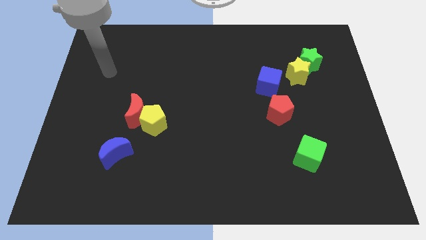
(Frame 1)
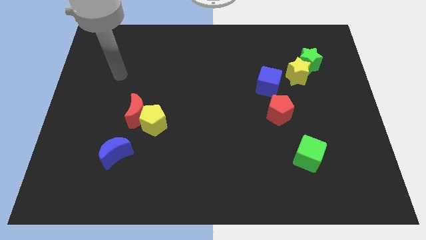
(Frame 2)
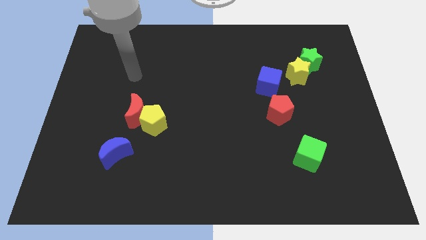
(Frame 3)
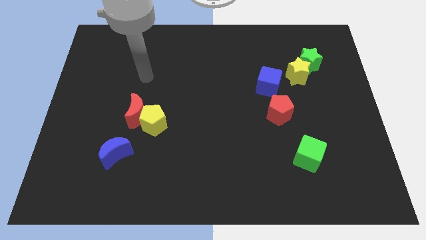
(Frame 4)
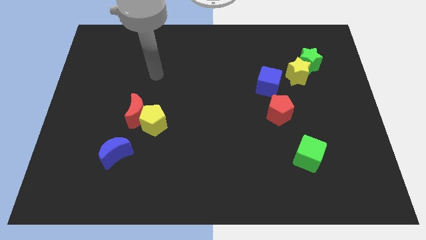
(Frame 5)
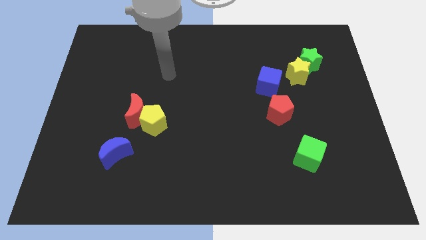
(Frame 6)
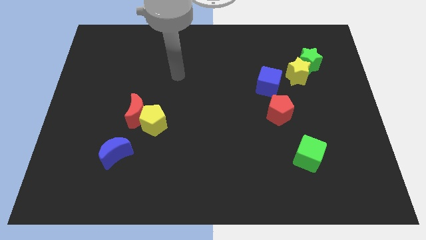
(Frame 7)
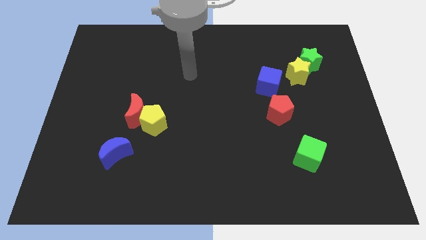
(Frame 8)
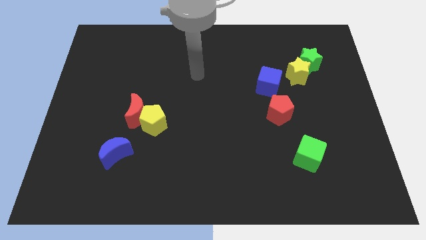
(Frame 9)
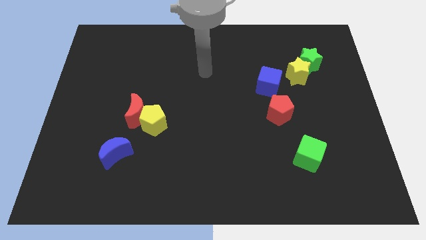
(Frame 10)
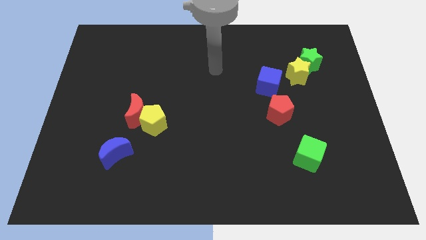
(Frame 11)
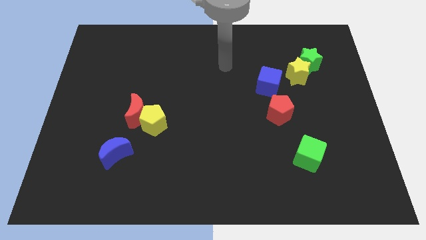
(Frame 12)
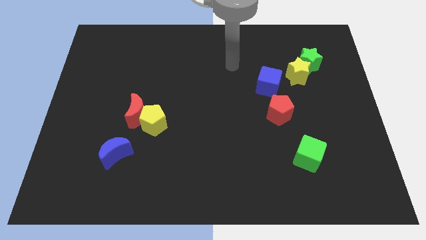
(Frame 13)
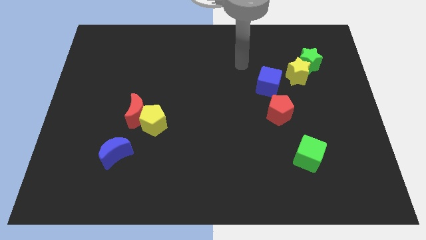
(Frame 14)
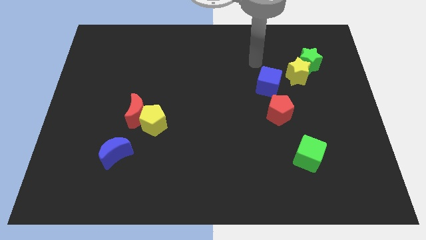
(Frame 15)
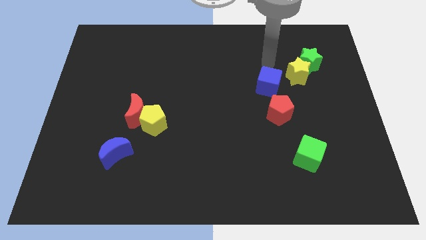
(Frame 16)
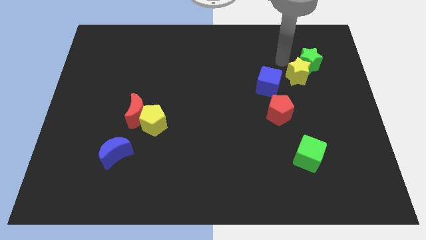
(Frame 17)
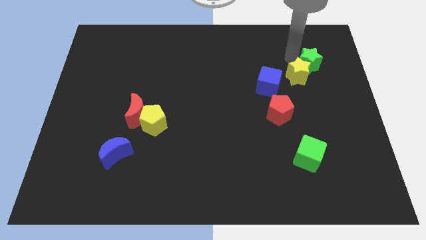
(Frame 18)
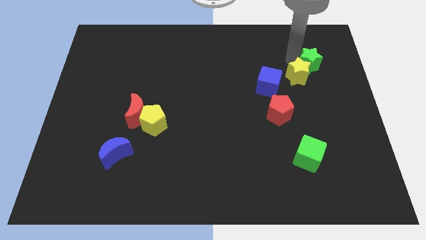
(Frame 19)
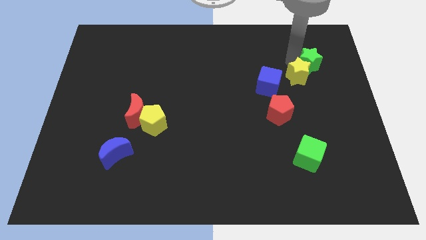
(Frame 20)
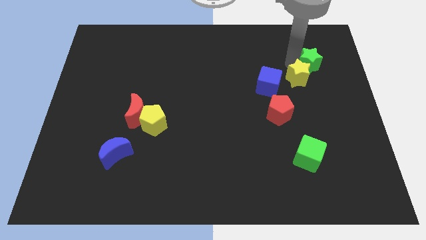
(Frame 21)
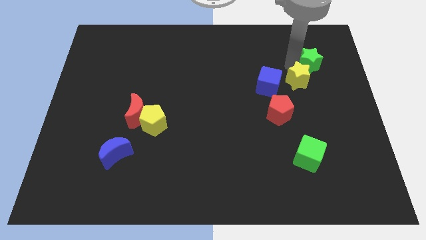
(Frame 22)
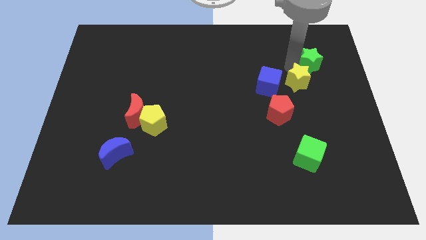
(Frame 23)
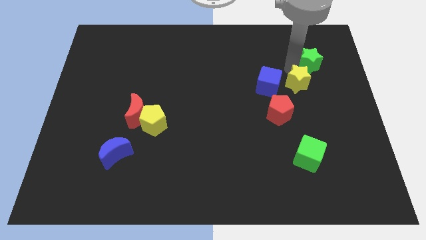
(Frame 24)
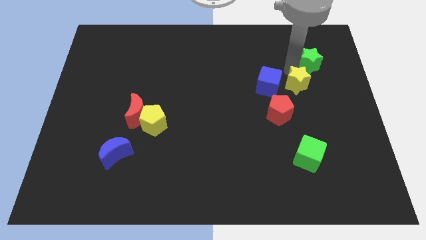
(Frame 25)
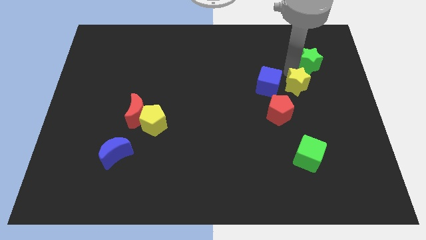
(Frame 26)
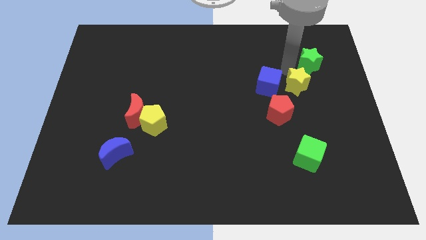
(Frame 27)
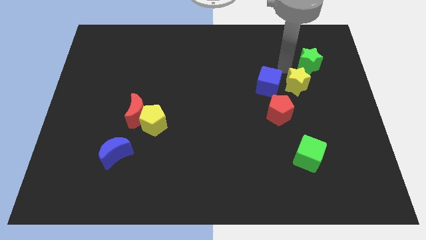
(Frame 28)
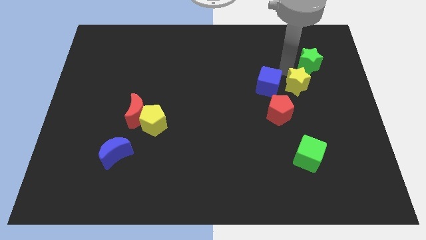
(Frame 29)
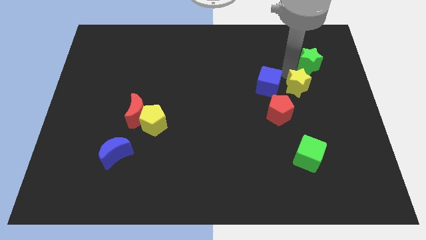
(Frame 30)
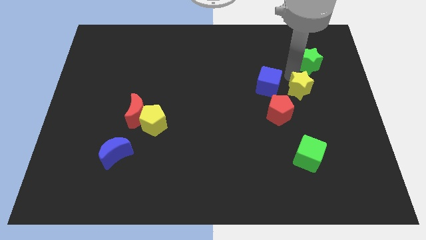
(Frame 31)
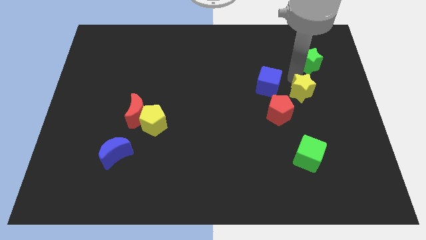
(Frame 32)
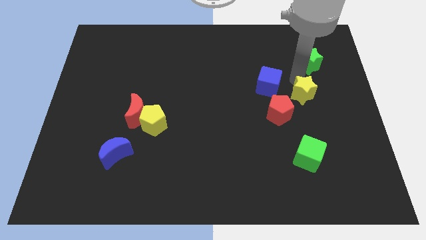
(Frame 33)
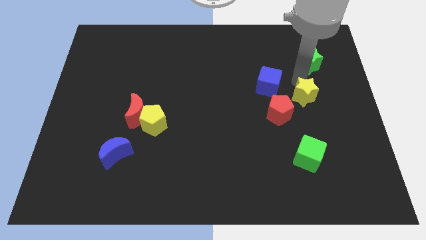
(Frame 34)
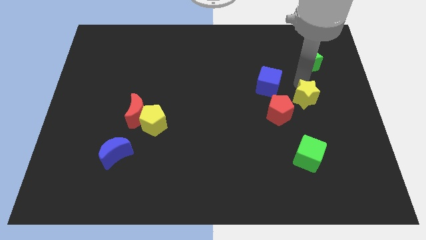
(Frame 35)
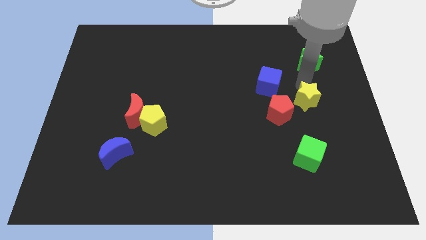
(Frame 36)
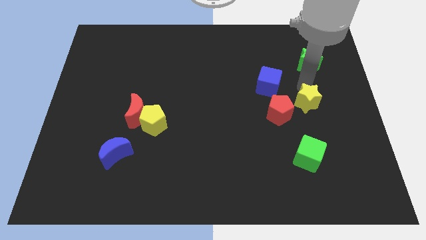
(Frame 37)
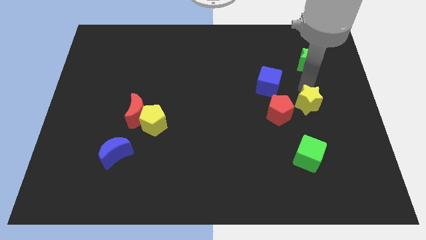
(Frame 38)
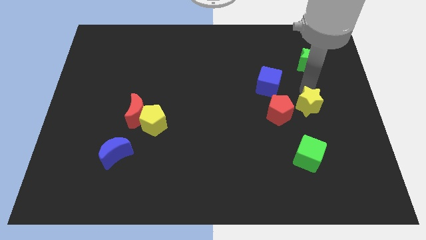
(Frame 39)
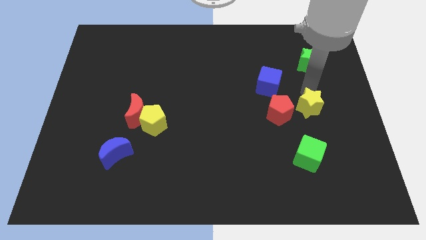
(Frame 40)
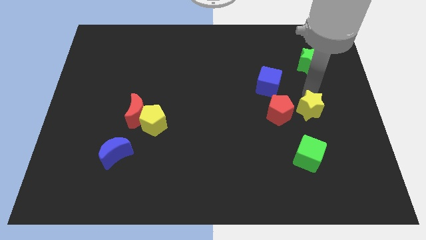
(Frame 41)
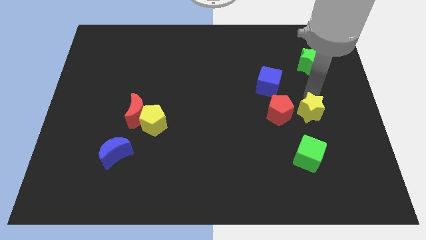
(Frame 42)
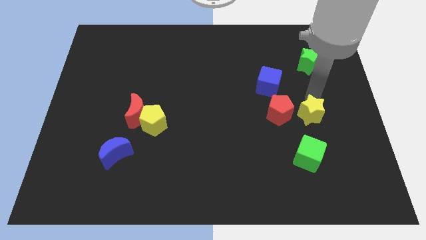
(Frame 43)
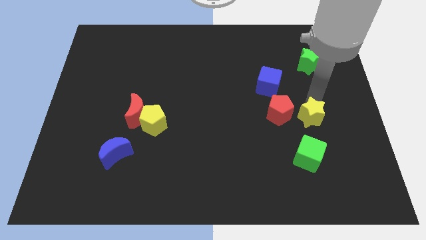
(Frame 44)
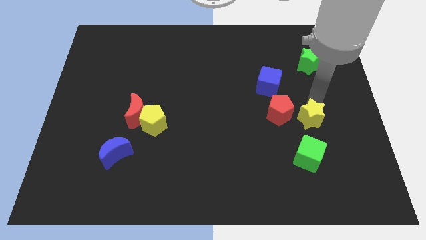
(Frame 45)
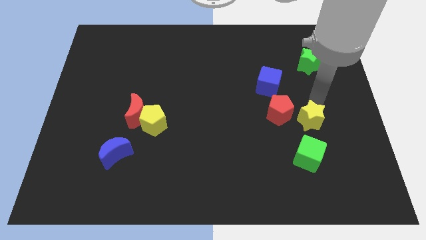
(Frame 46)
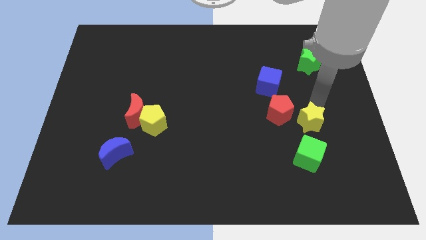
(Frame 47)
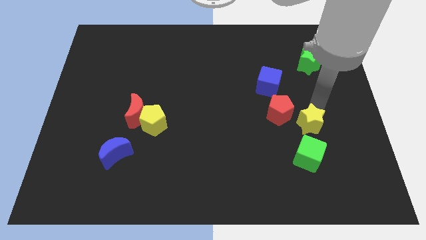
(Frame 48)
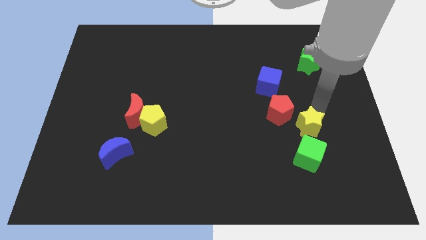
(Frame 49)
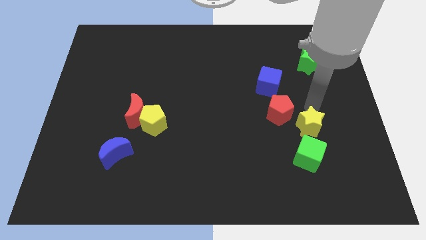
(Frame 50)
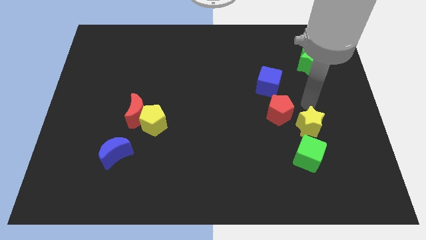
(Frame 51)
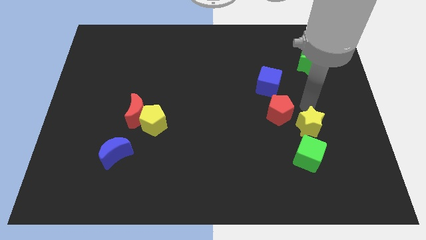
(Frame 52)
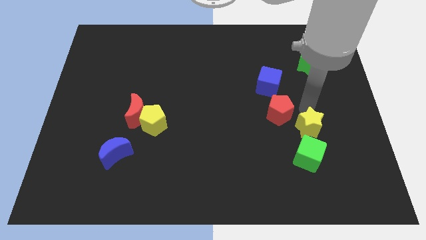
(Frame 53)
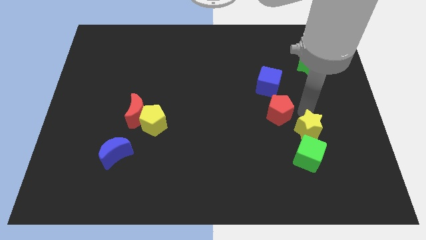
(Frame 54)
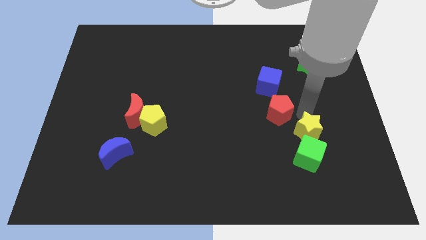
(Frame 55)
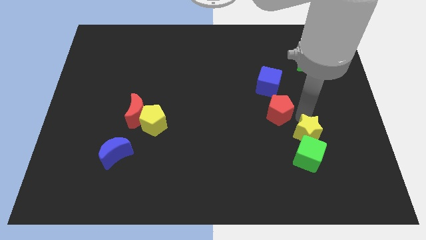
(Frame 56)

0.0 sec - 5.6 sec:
push the yellow star towards the green cube

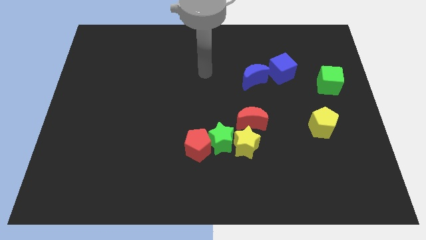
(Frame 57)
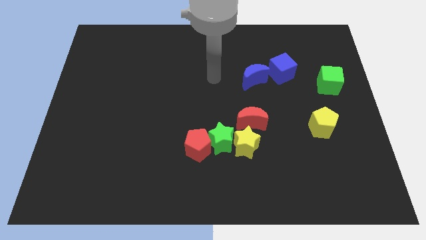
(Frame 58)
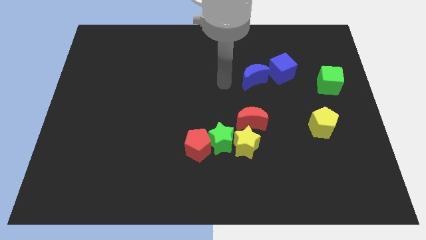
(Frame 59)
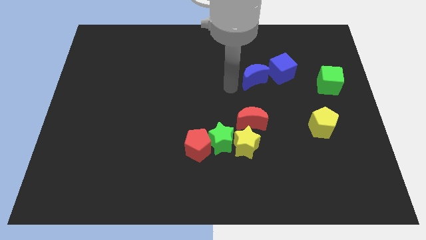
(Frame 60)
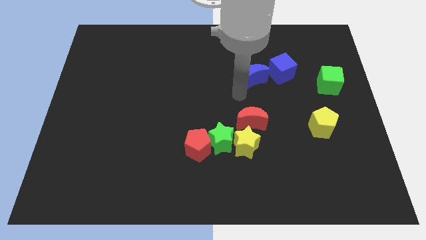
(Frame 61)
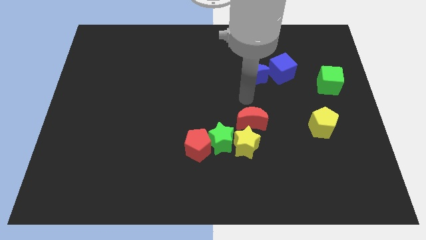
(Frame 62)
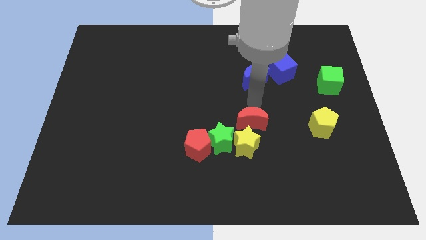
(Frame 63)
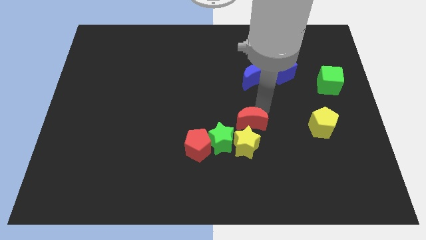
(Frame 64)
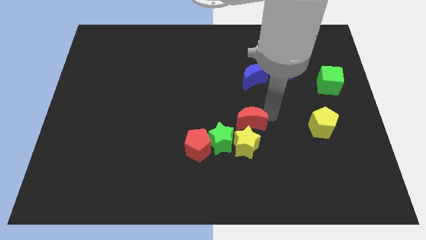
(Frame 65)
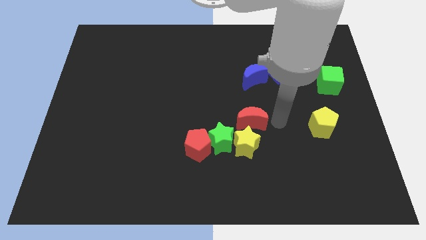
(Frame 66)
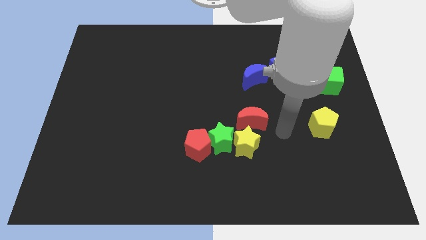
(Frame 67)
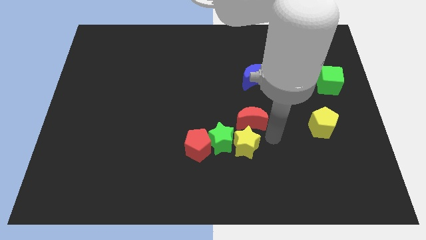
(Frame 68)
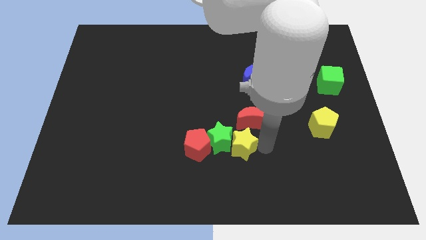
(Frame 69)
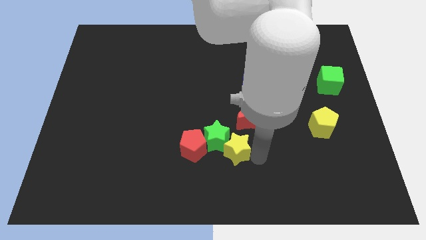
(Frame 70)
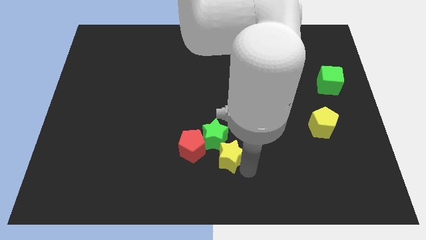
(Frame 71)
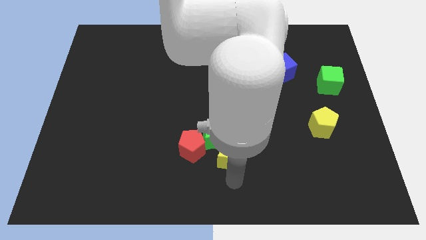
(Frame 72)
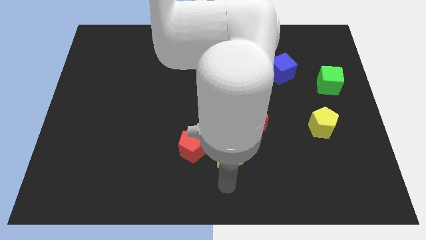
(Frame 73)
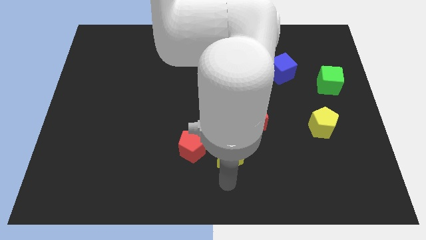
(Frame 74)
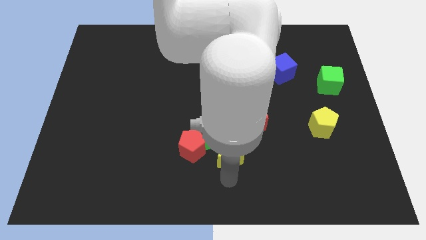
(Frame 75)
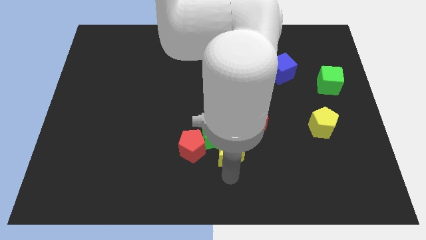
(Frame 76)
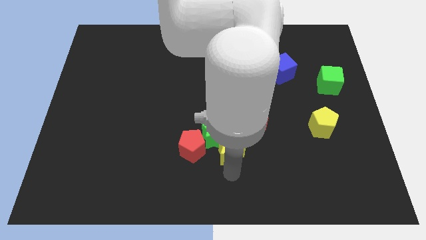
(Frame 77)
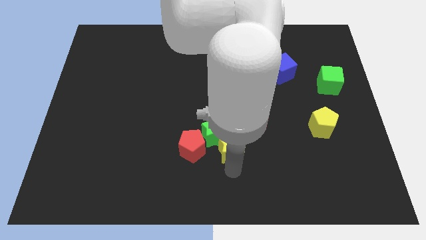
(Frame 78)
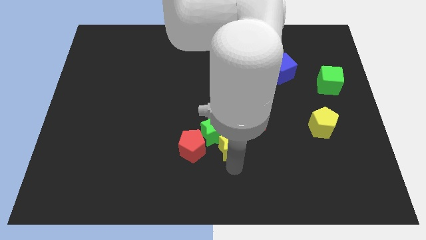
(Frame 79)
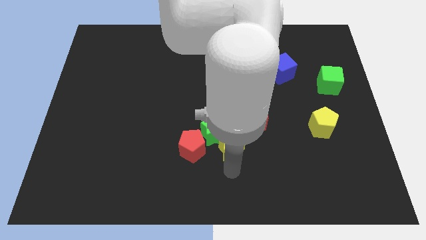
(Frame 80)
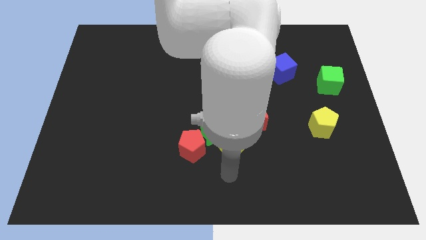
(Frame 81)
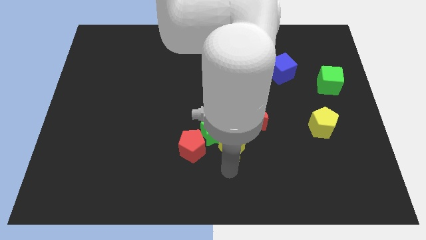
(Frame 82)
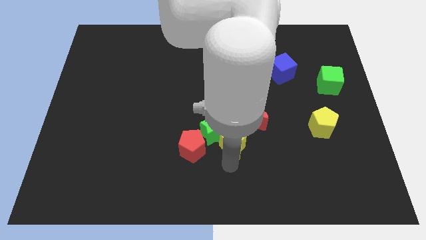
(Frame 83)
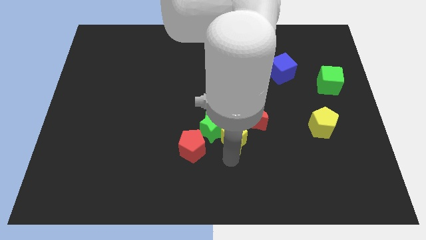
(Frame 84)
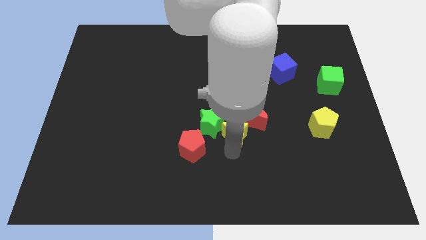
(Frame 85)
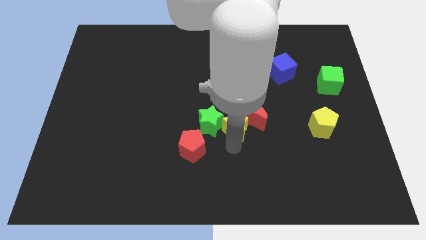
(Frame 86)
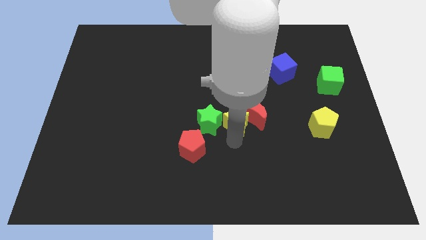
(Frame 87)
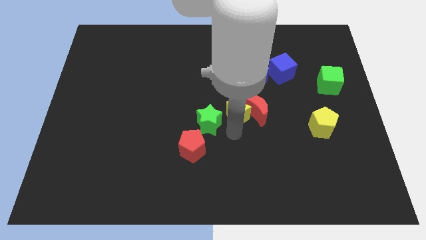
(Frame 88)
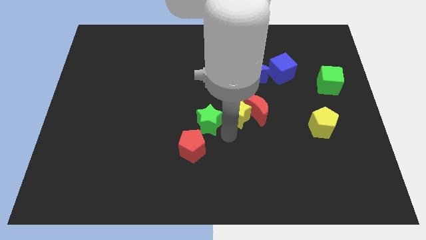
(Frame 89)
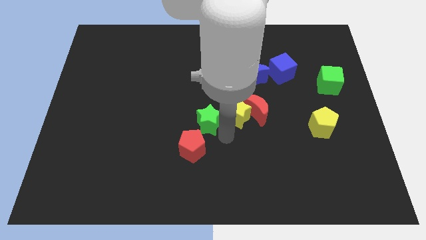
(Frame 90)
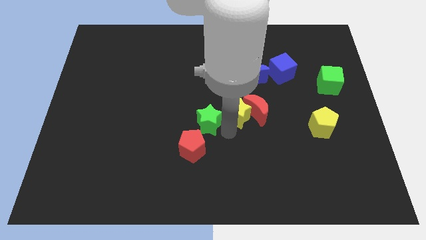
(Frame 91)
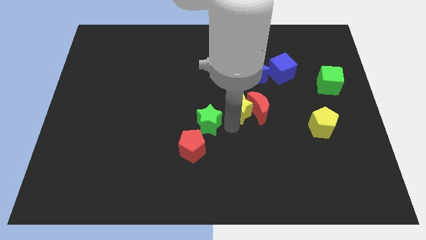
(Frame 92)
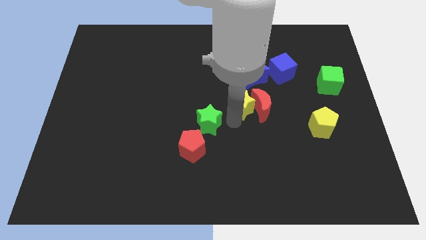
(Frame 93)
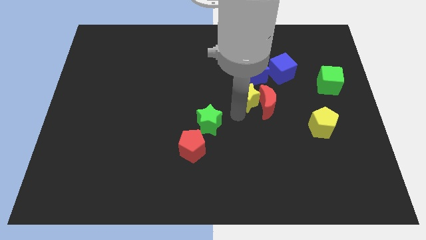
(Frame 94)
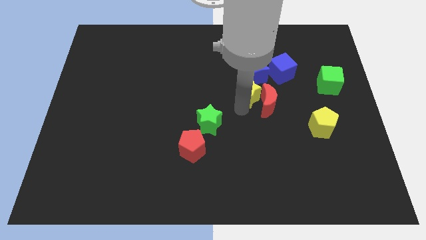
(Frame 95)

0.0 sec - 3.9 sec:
push the yellow star to the blue moon
